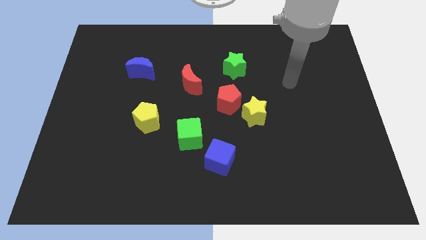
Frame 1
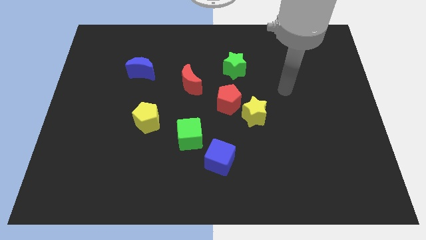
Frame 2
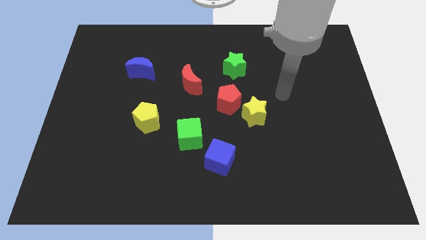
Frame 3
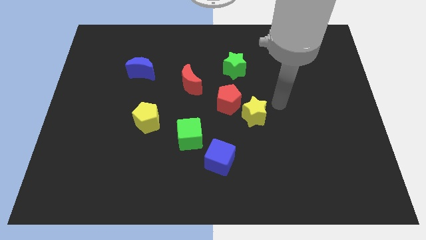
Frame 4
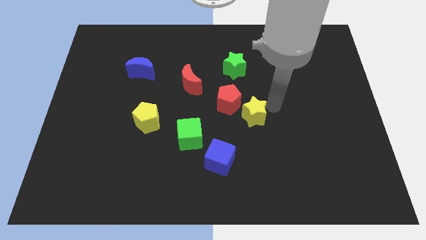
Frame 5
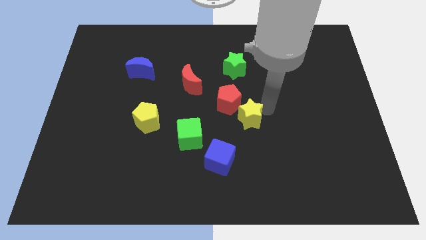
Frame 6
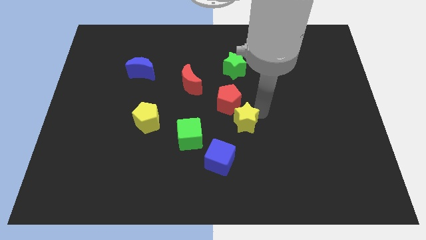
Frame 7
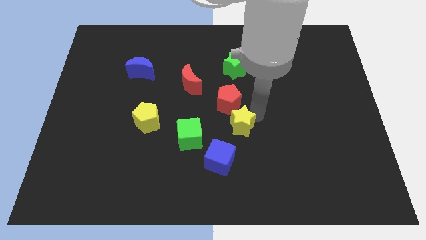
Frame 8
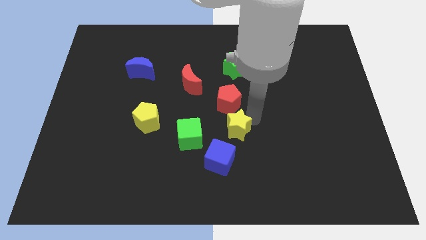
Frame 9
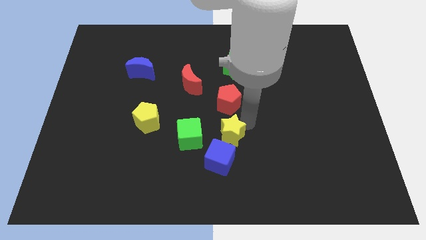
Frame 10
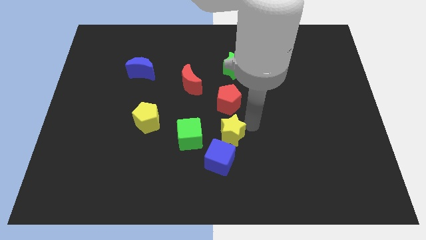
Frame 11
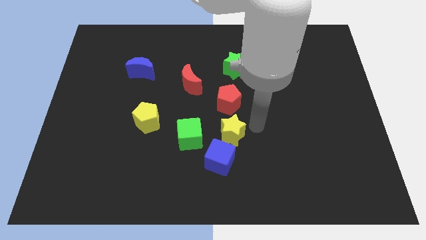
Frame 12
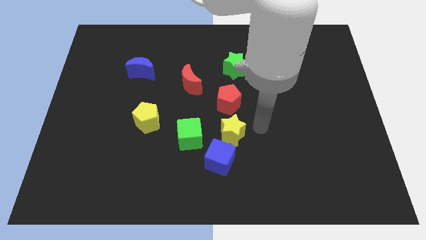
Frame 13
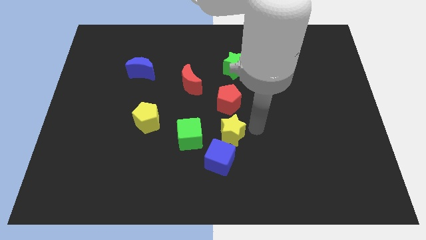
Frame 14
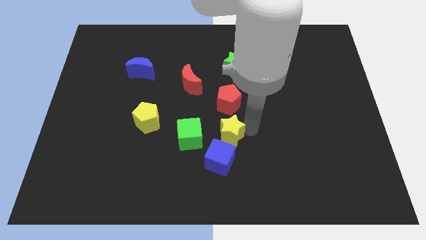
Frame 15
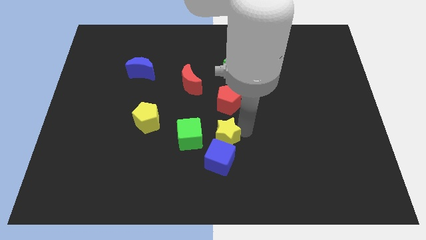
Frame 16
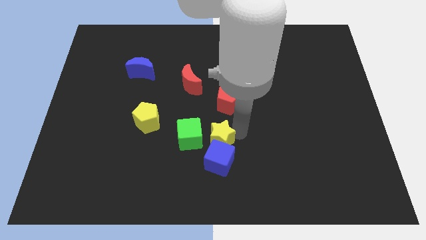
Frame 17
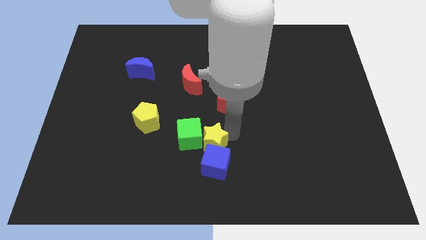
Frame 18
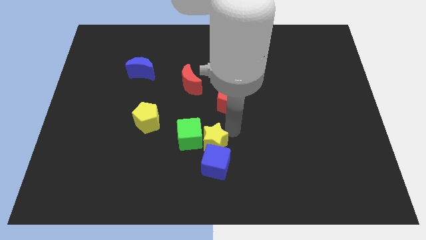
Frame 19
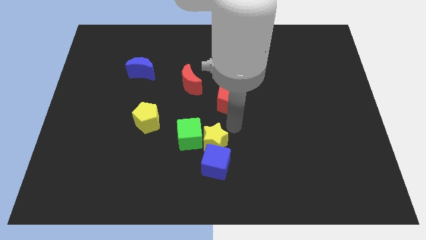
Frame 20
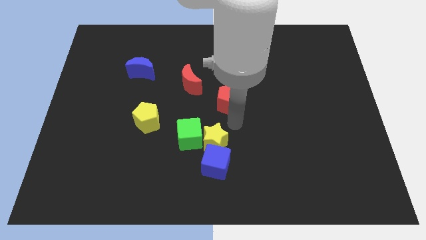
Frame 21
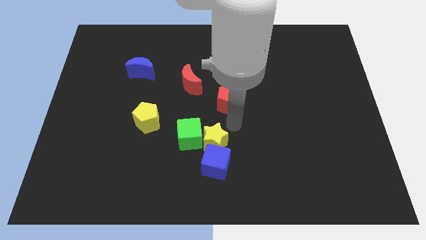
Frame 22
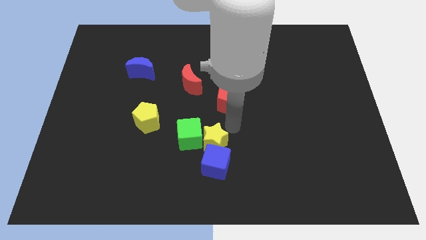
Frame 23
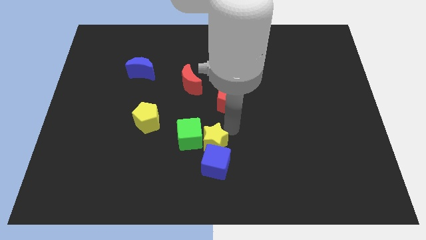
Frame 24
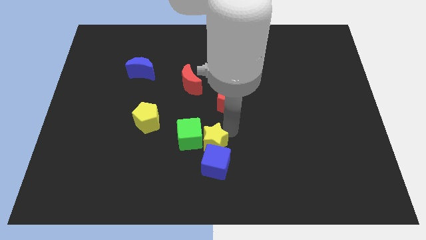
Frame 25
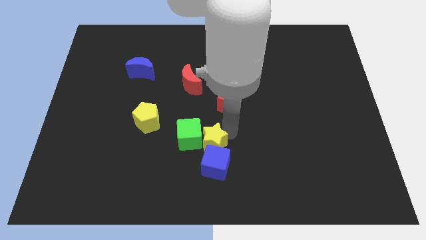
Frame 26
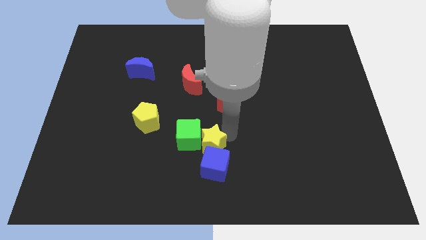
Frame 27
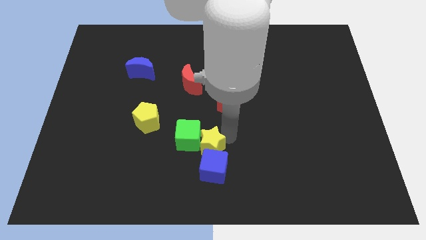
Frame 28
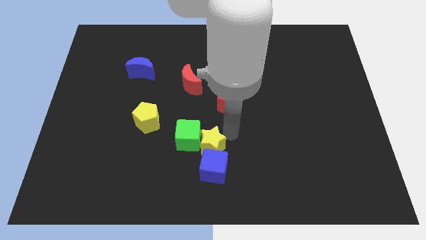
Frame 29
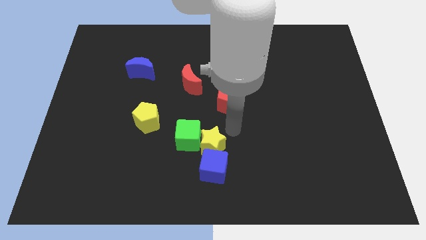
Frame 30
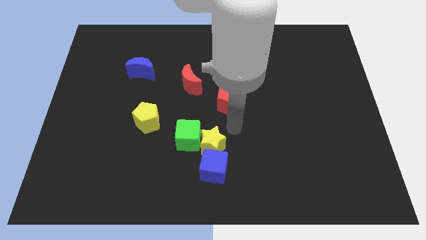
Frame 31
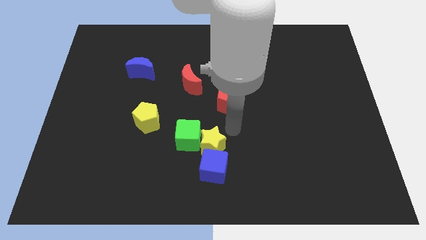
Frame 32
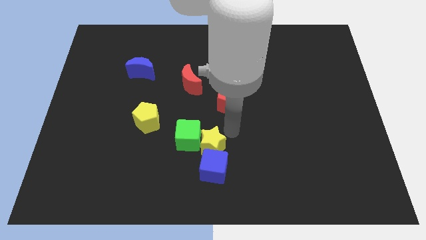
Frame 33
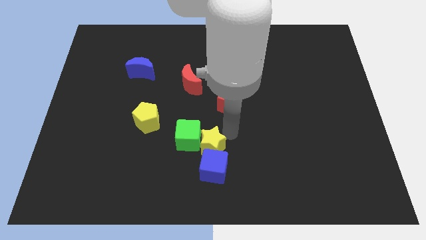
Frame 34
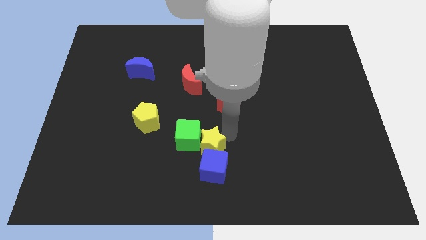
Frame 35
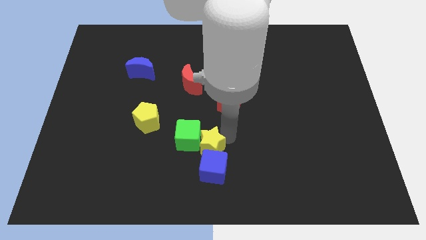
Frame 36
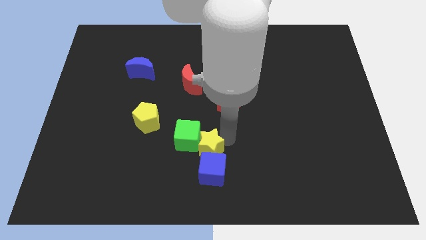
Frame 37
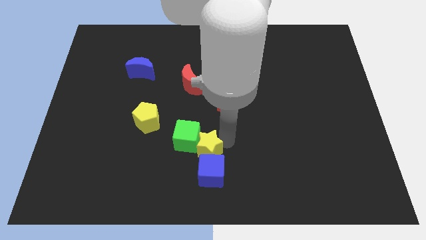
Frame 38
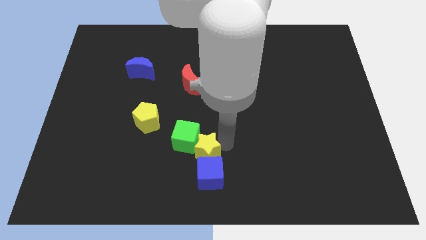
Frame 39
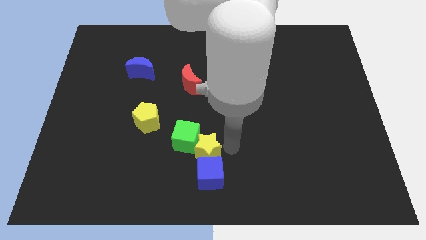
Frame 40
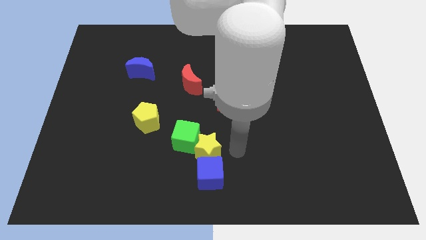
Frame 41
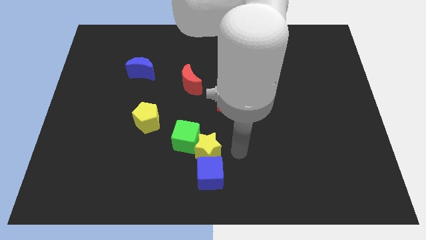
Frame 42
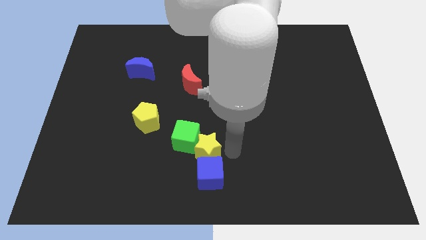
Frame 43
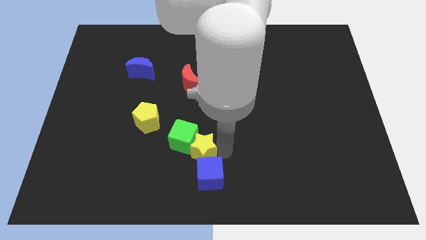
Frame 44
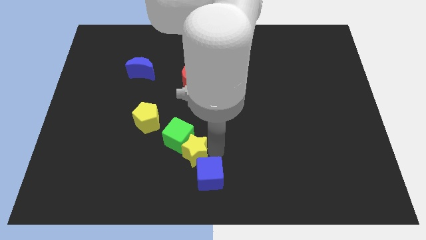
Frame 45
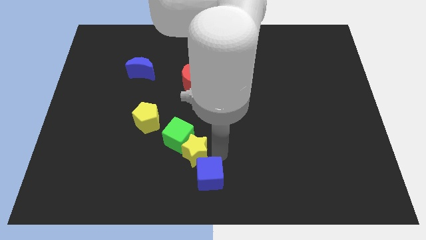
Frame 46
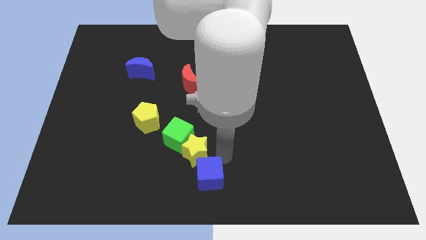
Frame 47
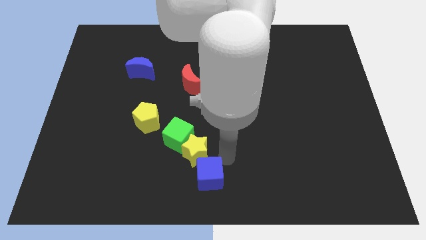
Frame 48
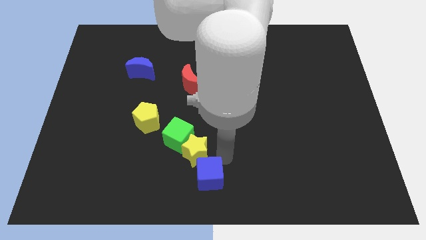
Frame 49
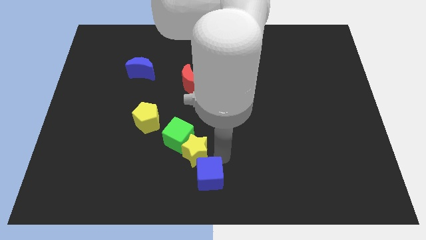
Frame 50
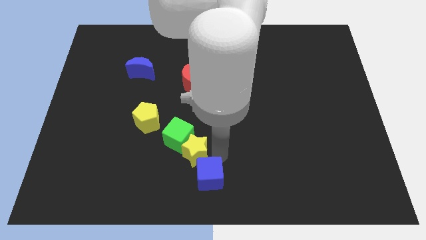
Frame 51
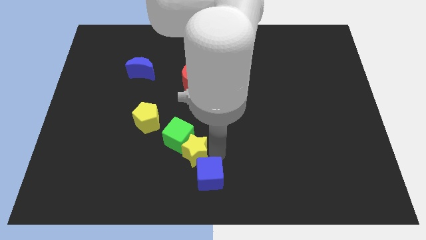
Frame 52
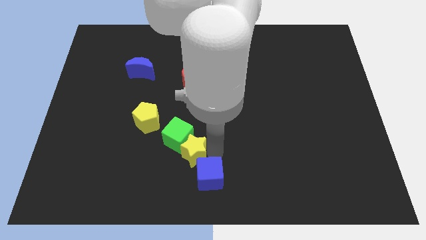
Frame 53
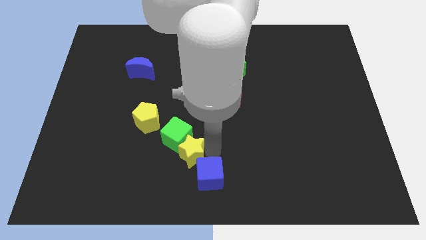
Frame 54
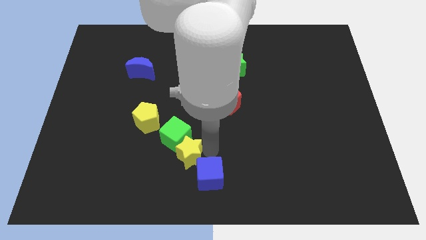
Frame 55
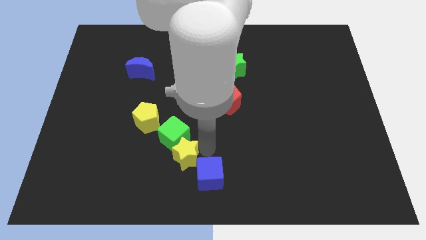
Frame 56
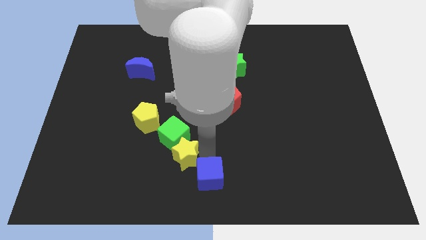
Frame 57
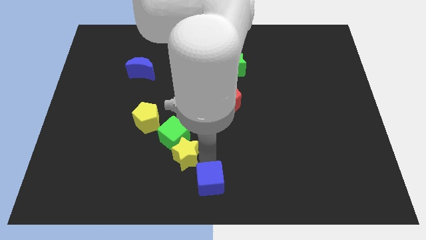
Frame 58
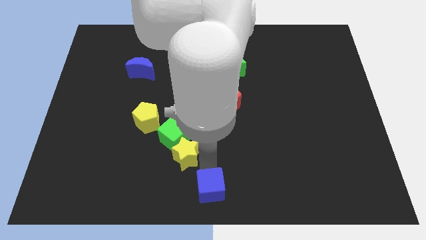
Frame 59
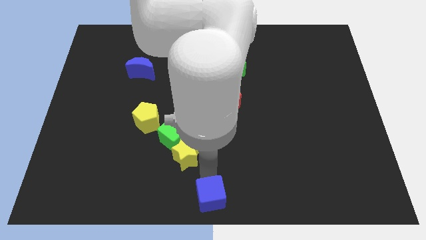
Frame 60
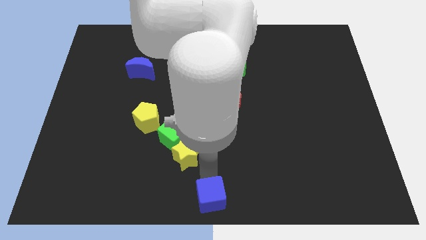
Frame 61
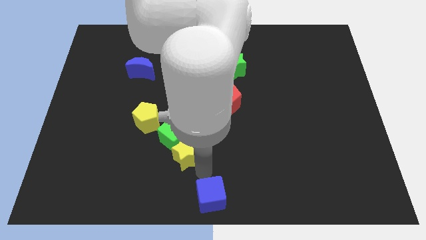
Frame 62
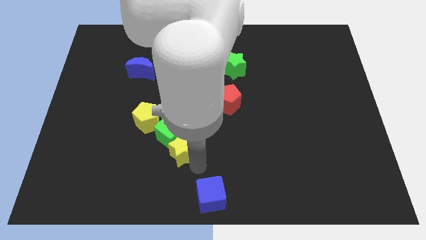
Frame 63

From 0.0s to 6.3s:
move the yellow star to the bottom right side of the yellow pentagon

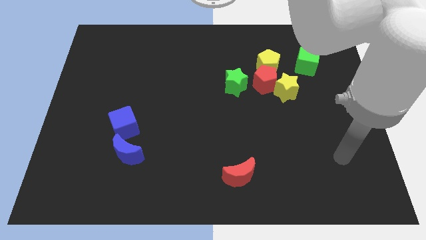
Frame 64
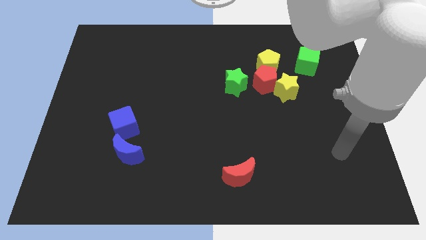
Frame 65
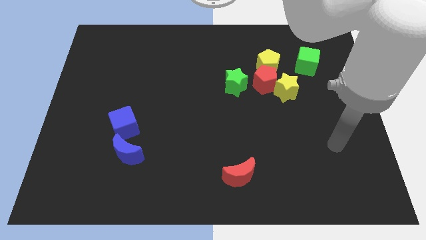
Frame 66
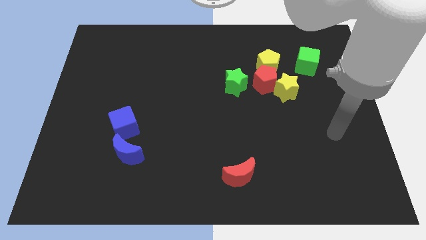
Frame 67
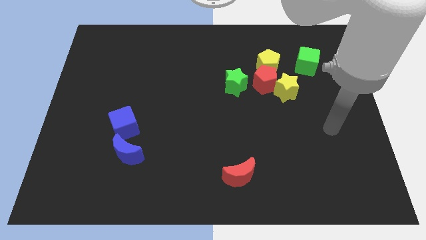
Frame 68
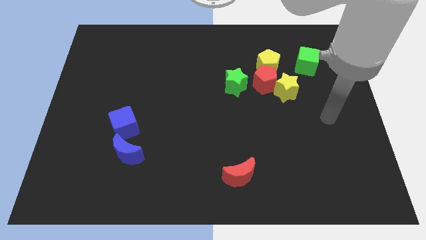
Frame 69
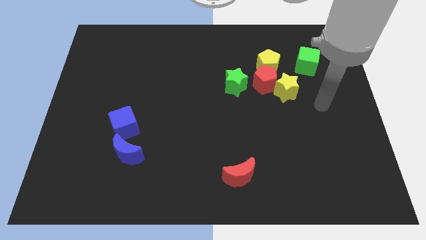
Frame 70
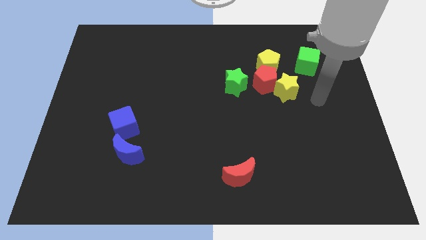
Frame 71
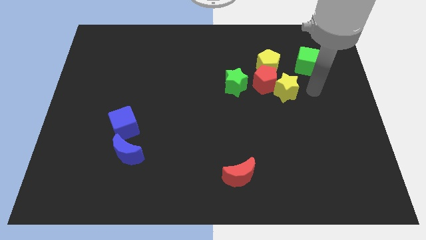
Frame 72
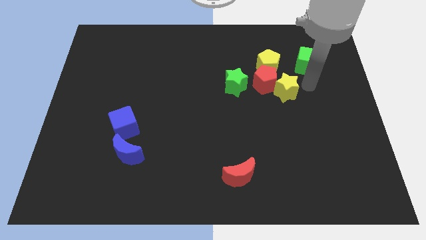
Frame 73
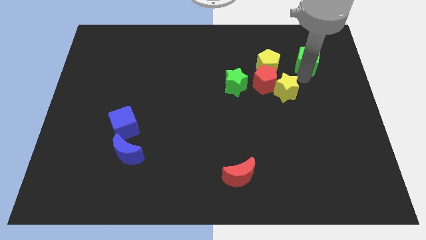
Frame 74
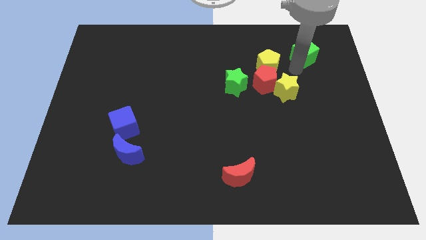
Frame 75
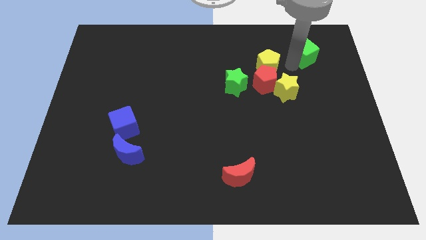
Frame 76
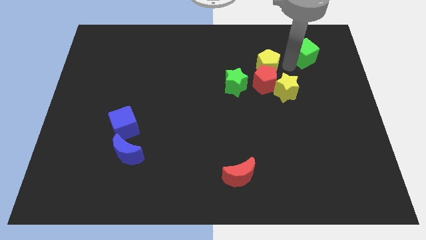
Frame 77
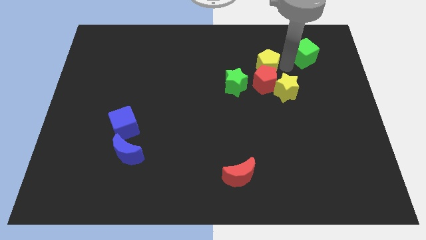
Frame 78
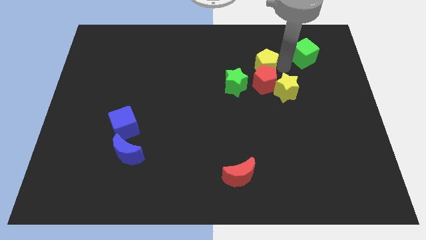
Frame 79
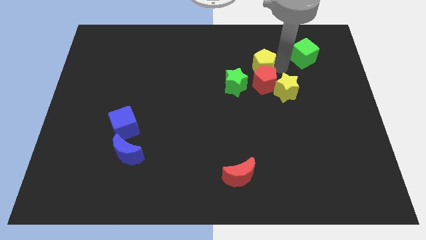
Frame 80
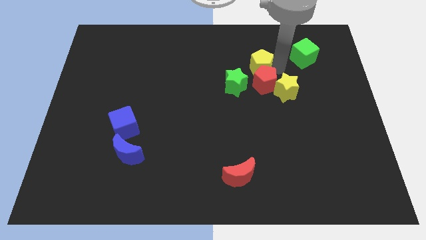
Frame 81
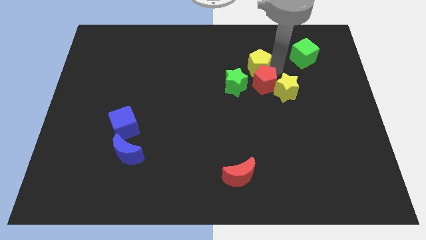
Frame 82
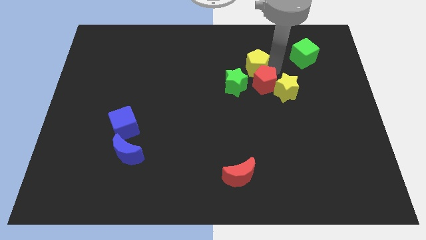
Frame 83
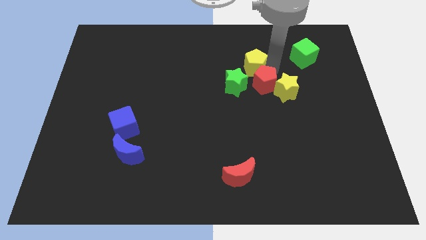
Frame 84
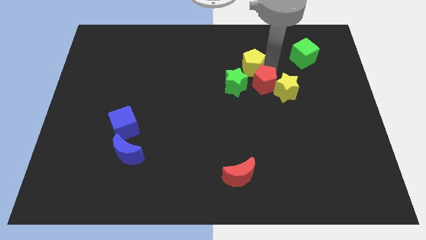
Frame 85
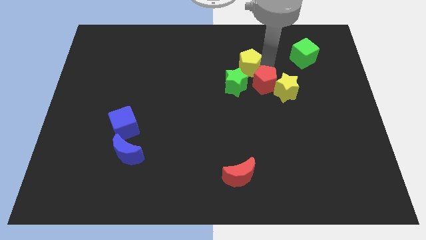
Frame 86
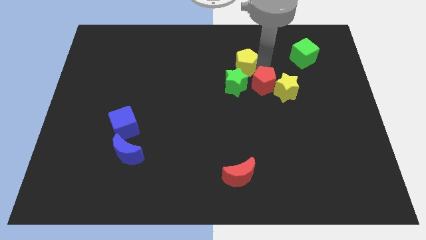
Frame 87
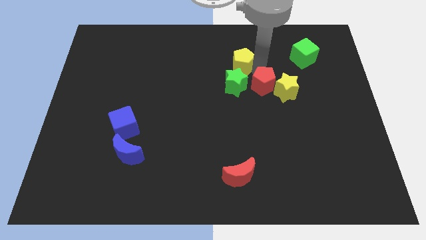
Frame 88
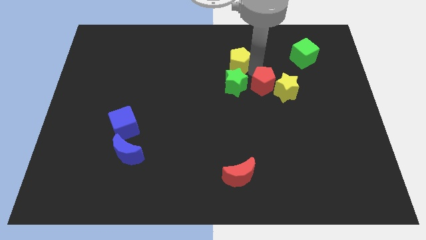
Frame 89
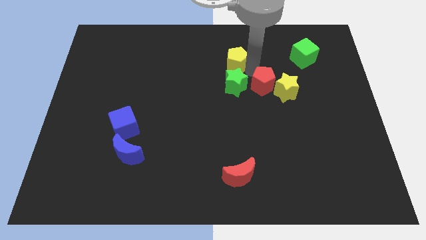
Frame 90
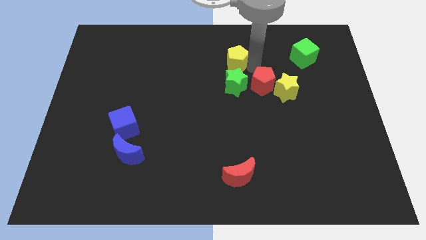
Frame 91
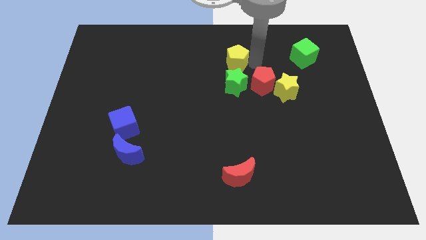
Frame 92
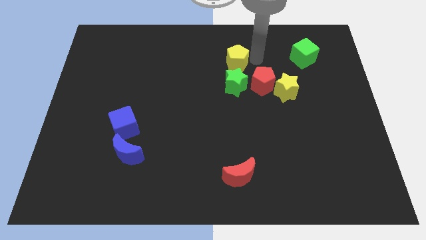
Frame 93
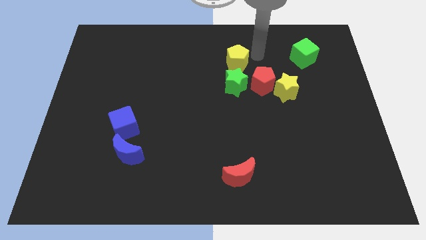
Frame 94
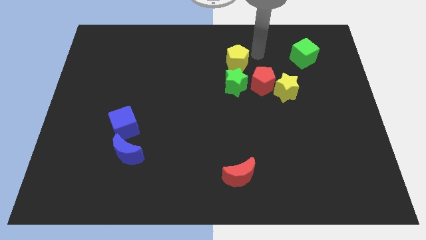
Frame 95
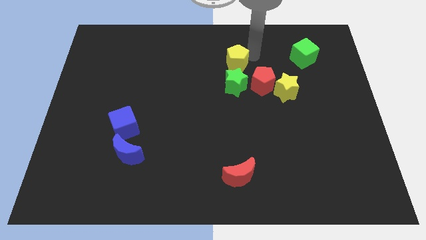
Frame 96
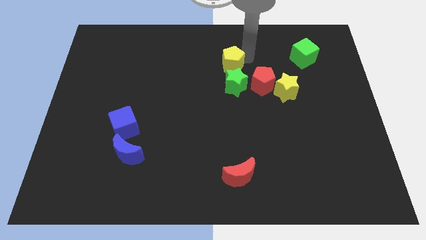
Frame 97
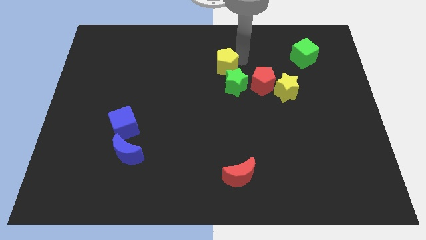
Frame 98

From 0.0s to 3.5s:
put the yellow pentagon diagonally up and to the left of the green star
